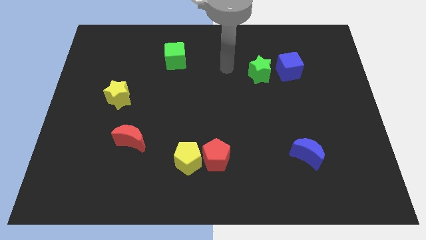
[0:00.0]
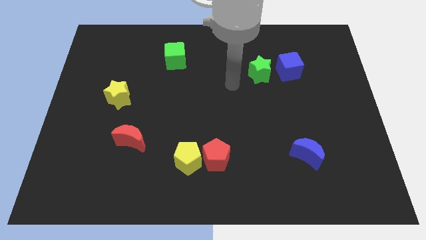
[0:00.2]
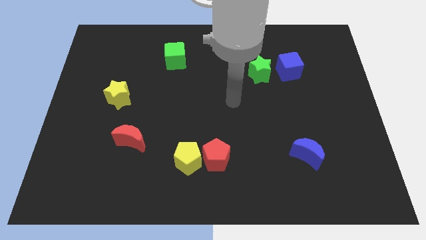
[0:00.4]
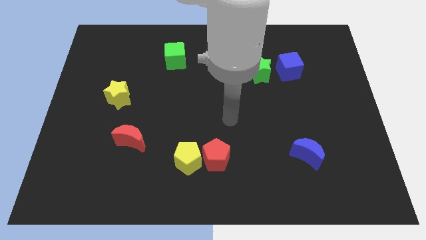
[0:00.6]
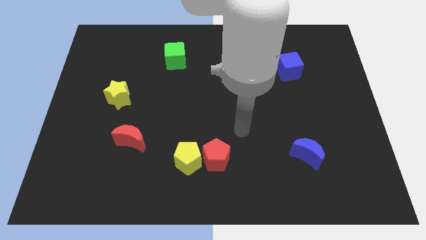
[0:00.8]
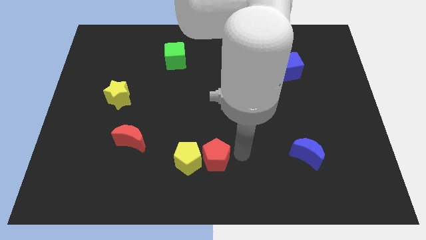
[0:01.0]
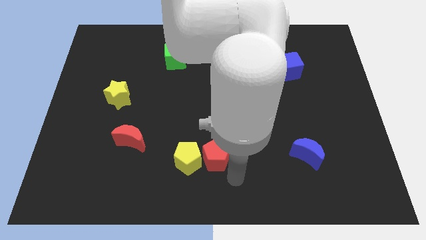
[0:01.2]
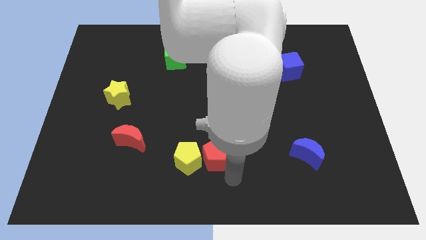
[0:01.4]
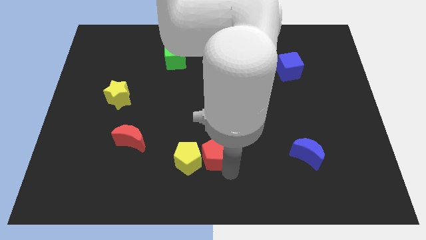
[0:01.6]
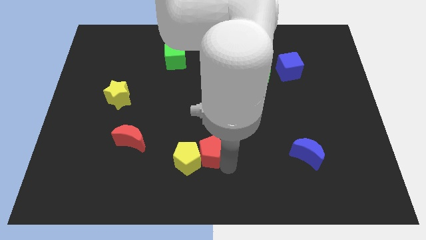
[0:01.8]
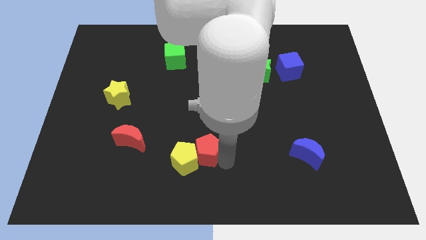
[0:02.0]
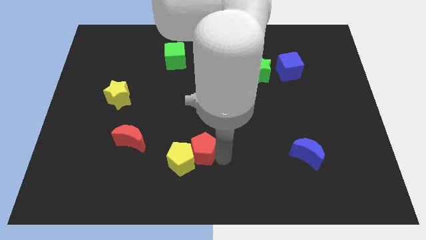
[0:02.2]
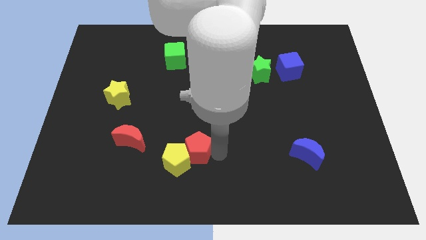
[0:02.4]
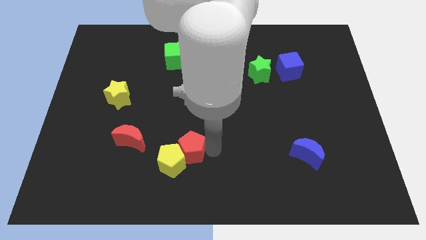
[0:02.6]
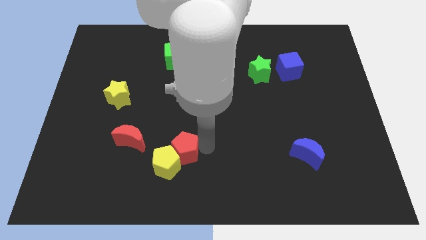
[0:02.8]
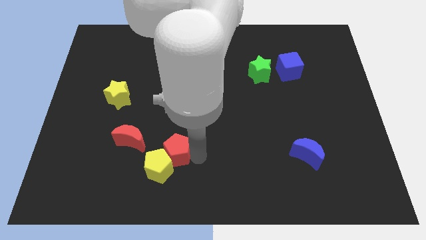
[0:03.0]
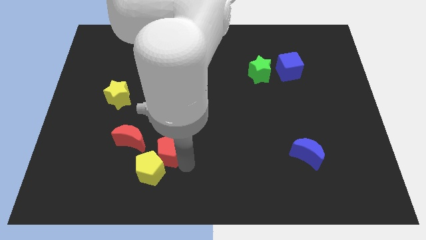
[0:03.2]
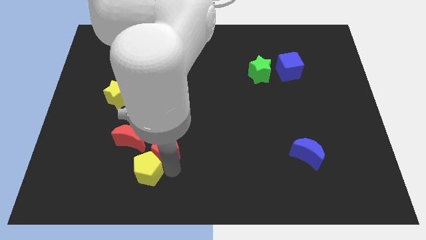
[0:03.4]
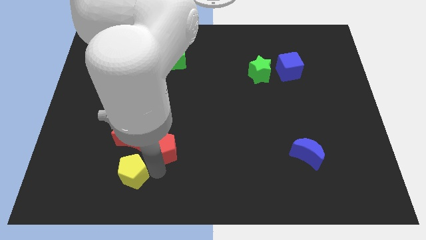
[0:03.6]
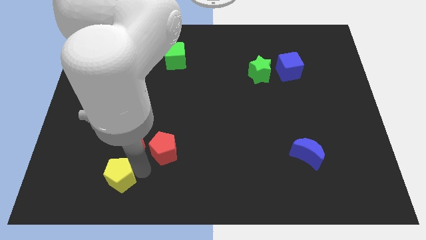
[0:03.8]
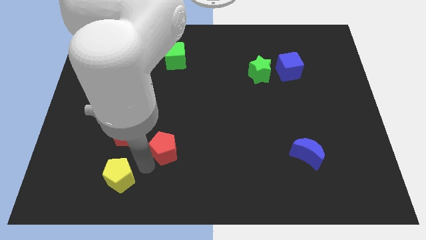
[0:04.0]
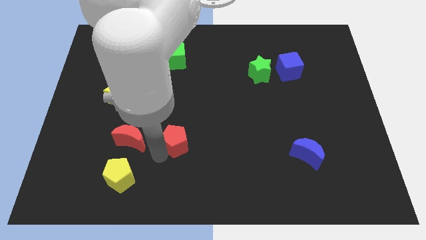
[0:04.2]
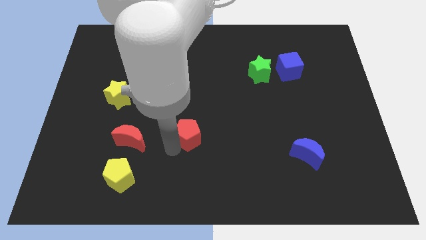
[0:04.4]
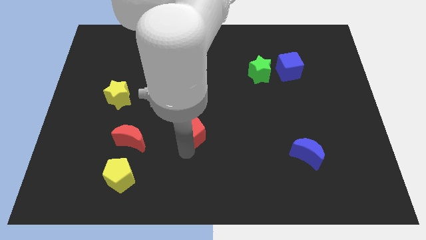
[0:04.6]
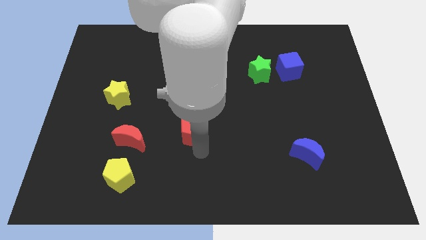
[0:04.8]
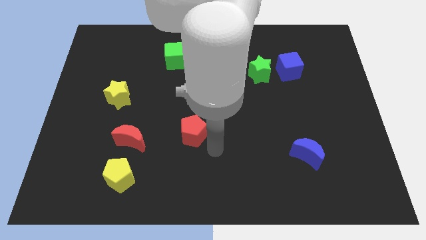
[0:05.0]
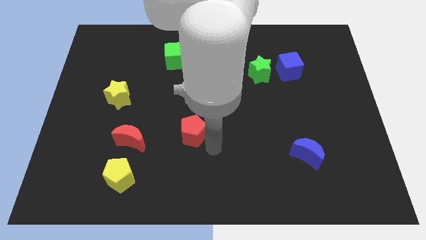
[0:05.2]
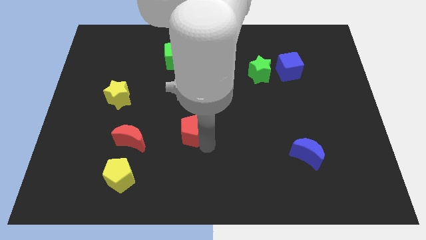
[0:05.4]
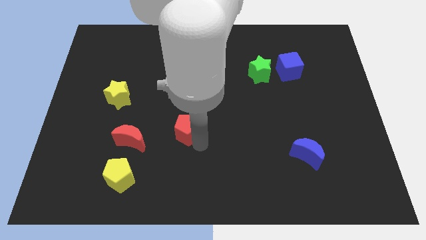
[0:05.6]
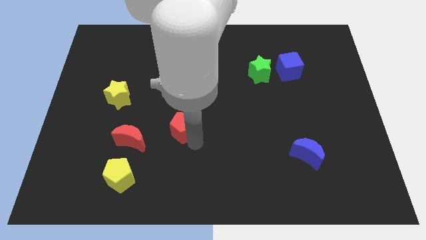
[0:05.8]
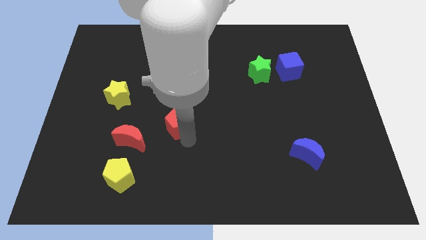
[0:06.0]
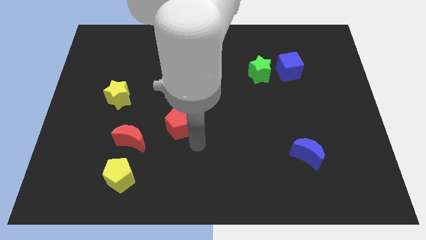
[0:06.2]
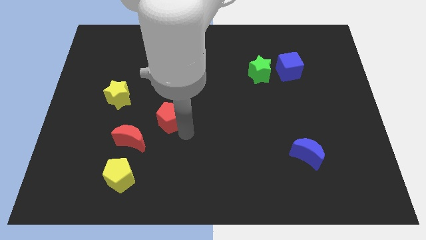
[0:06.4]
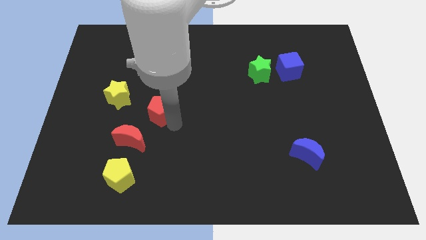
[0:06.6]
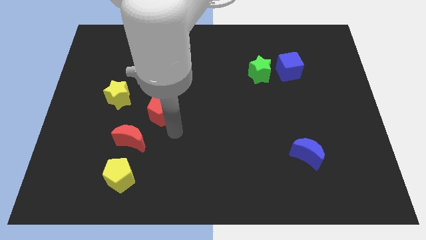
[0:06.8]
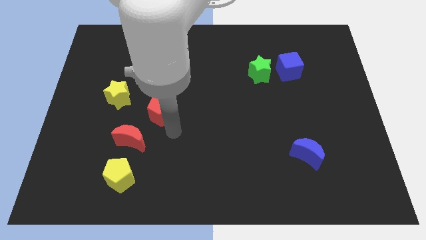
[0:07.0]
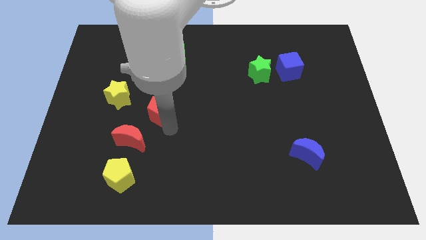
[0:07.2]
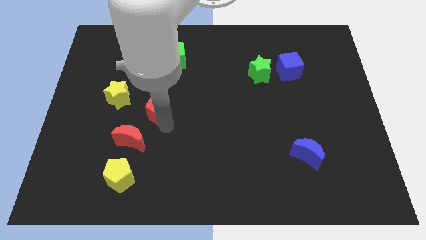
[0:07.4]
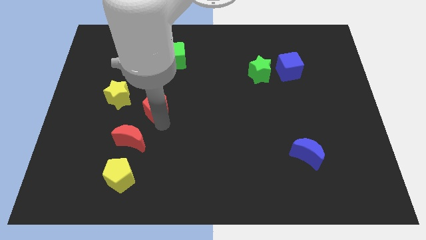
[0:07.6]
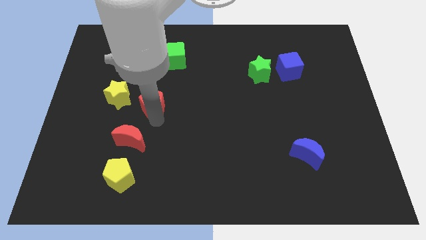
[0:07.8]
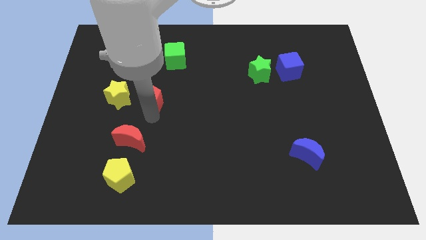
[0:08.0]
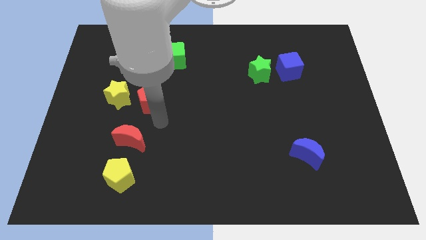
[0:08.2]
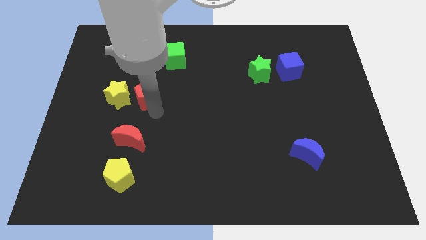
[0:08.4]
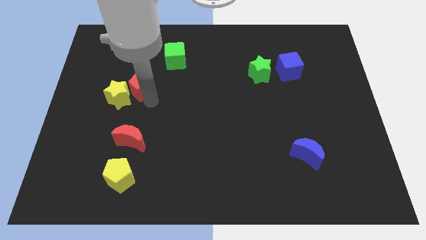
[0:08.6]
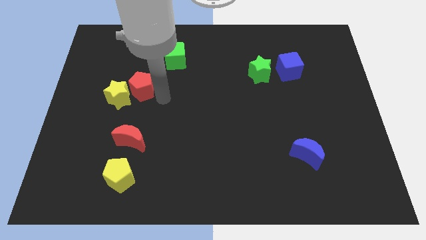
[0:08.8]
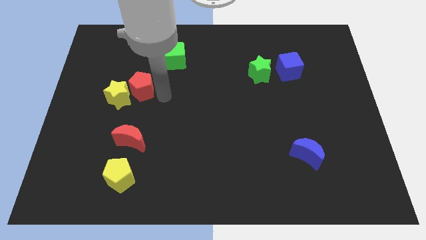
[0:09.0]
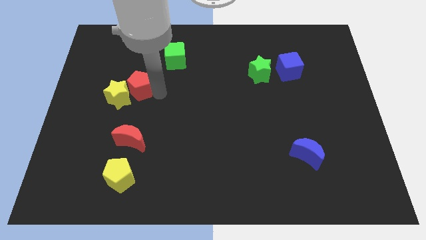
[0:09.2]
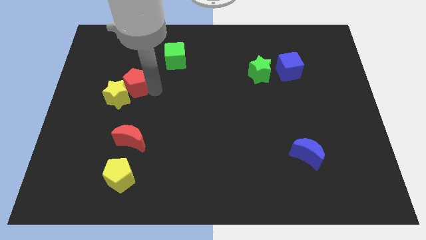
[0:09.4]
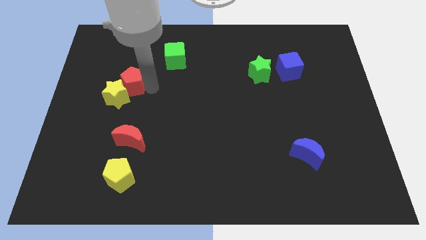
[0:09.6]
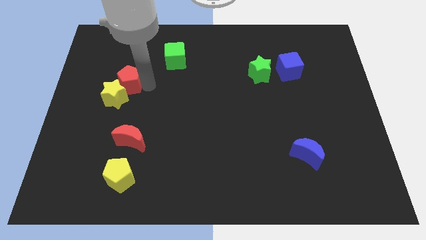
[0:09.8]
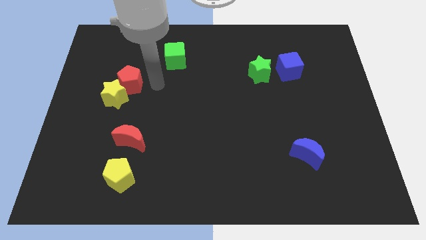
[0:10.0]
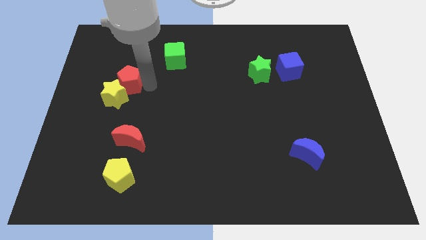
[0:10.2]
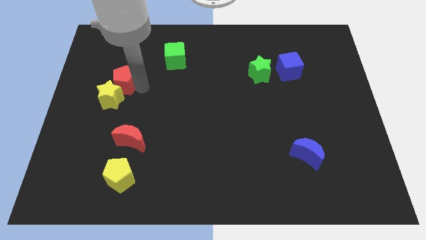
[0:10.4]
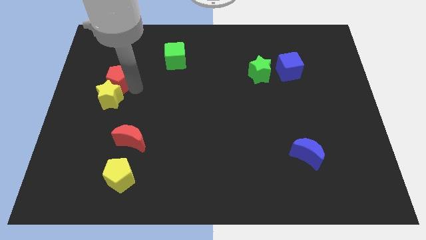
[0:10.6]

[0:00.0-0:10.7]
move the red pentagon to the top left of the yellow star

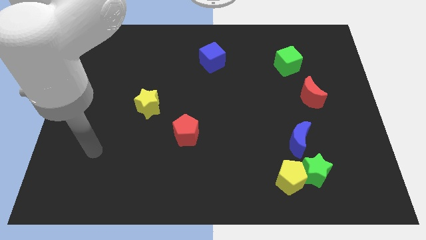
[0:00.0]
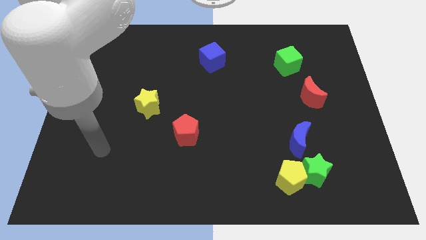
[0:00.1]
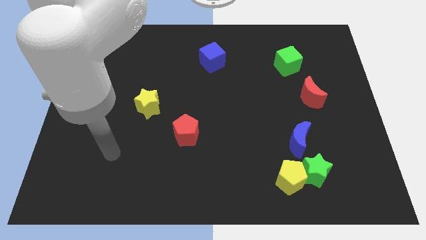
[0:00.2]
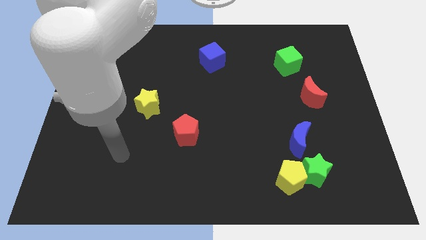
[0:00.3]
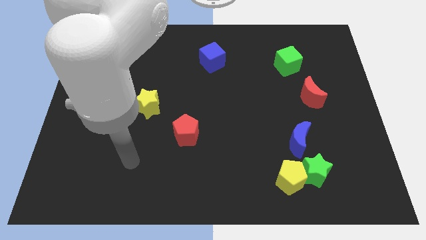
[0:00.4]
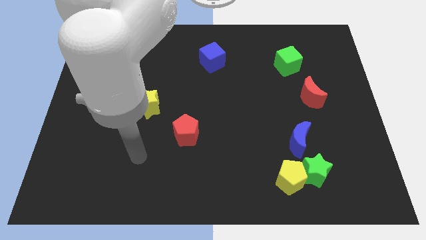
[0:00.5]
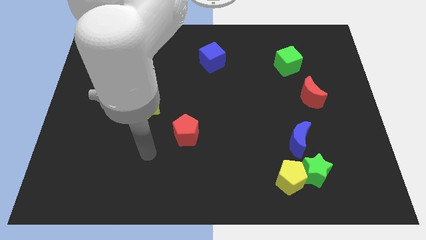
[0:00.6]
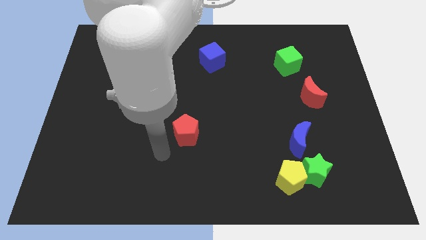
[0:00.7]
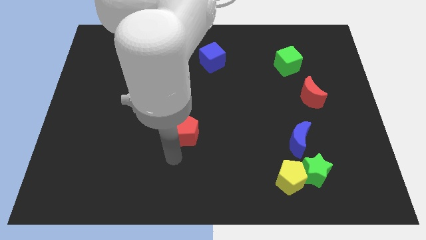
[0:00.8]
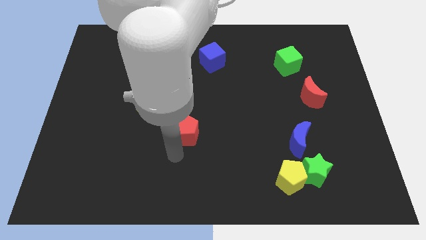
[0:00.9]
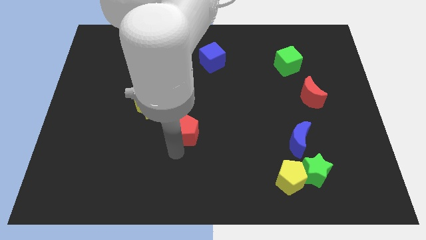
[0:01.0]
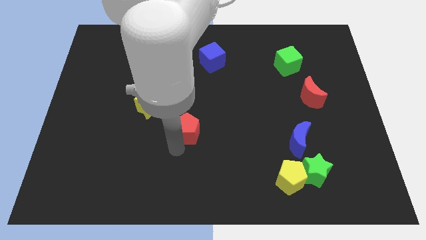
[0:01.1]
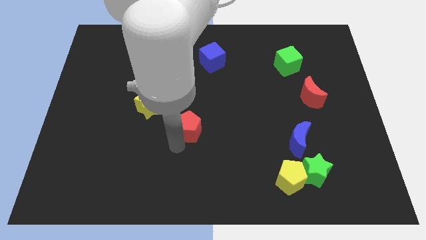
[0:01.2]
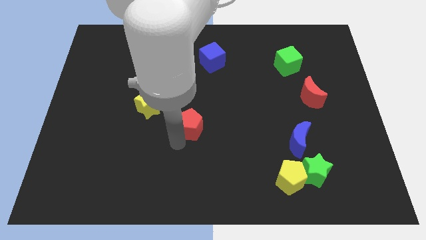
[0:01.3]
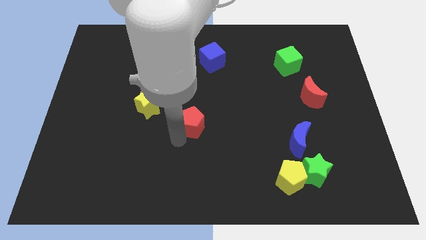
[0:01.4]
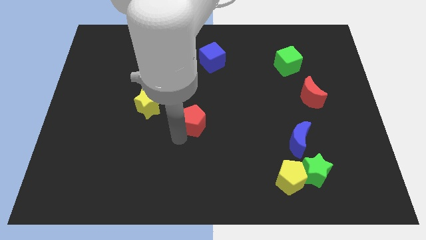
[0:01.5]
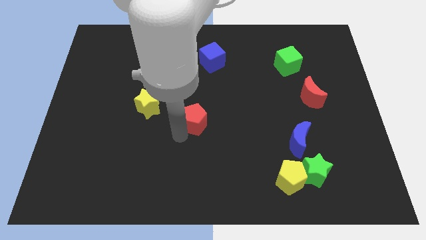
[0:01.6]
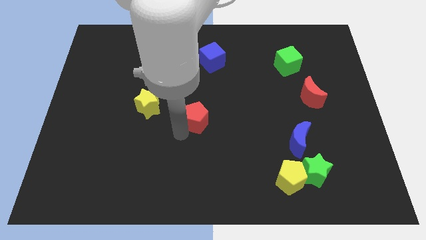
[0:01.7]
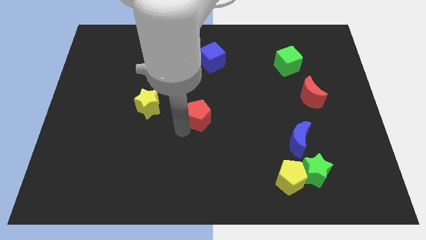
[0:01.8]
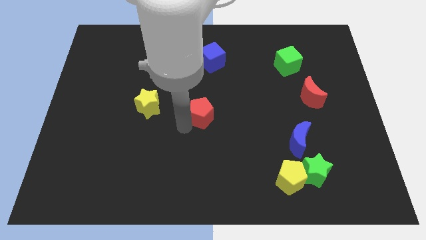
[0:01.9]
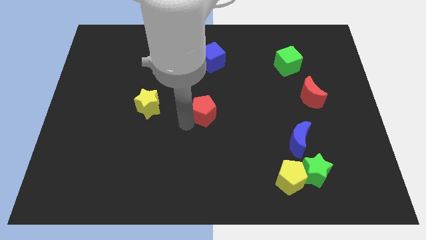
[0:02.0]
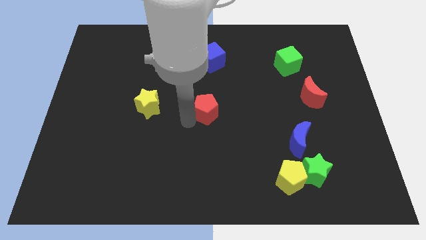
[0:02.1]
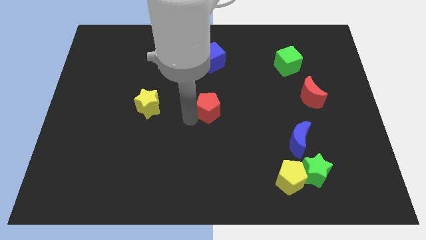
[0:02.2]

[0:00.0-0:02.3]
slide the red pentagon to the bottom side of the blue cube
